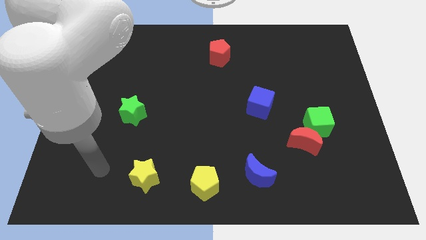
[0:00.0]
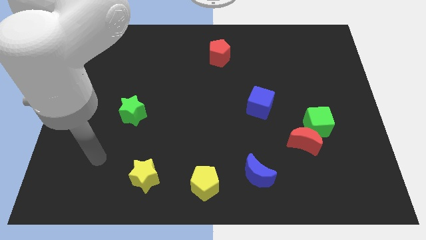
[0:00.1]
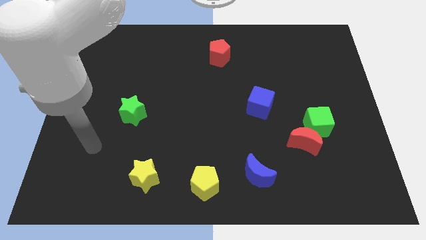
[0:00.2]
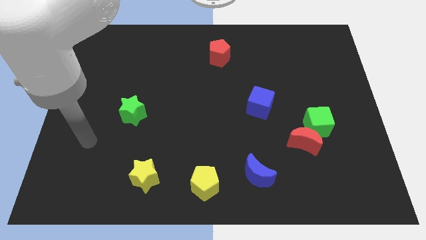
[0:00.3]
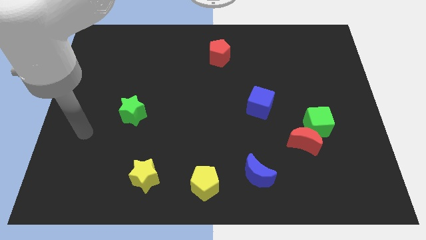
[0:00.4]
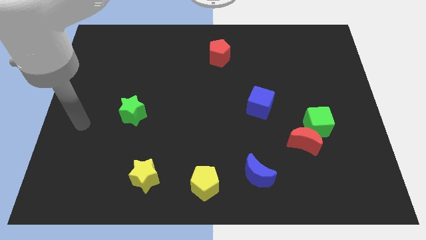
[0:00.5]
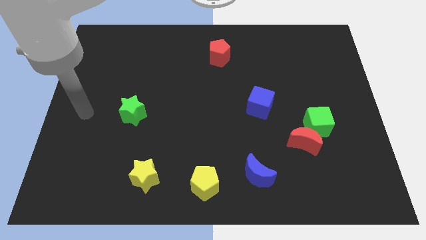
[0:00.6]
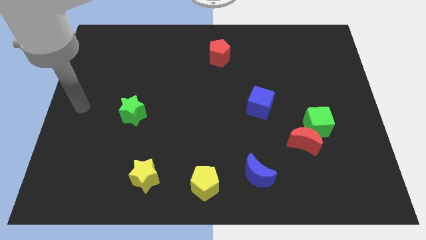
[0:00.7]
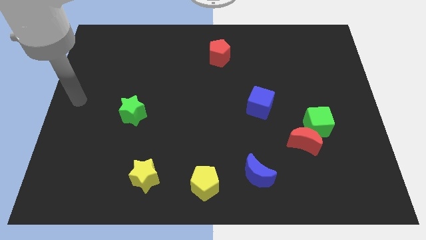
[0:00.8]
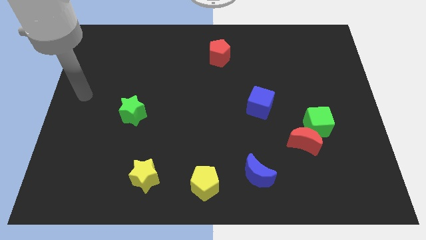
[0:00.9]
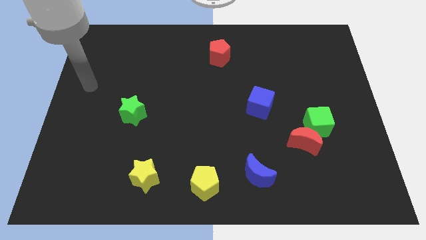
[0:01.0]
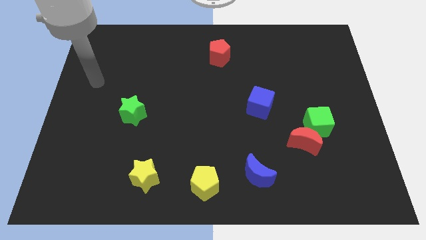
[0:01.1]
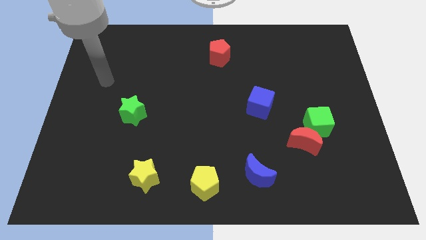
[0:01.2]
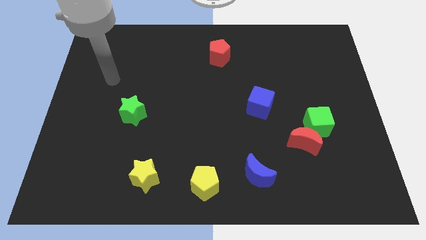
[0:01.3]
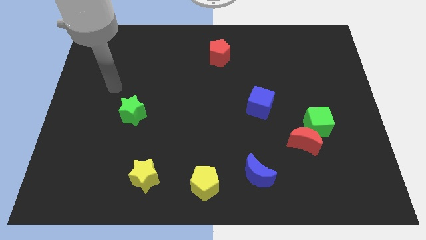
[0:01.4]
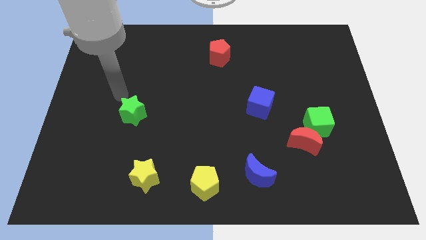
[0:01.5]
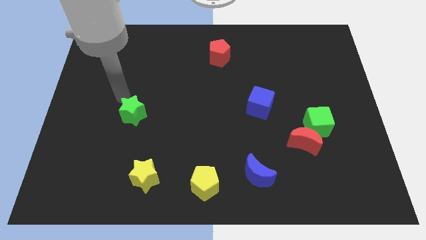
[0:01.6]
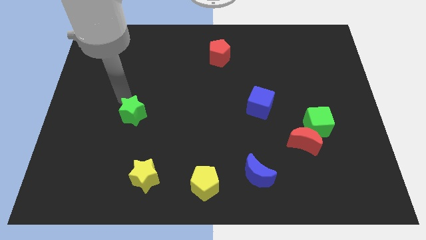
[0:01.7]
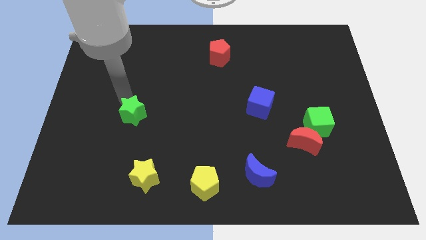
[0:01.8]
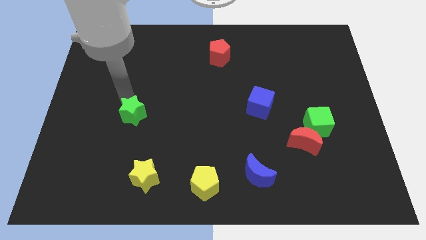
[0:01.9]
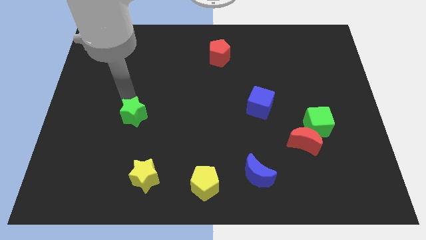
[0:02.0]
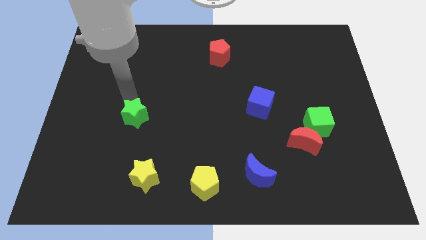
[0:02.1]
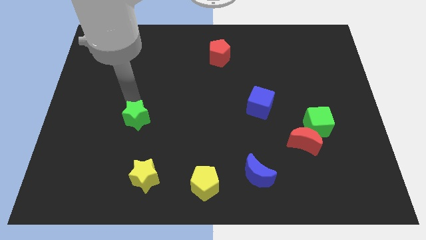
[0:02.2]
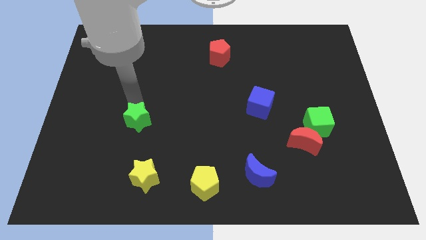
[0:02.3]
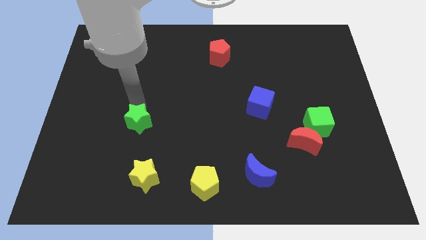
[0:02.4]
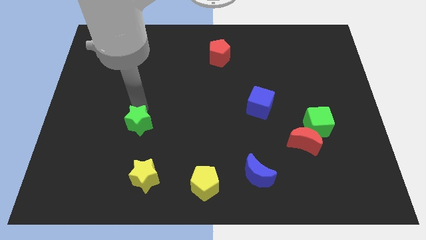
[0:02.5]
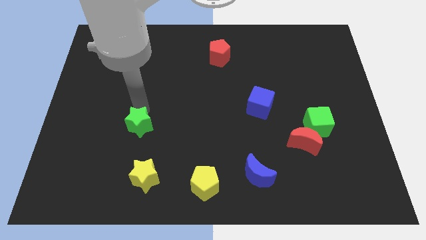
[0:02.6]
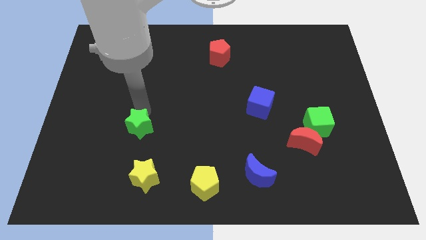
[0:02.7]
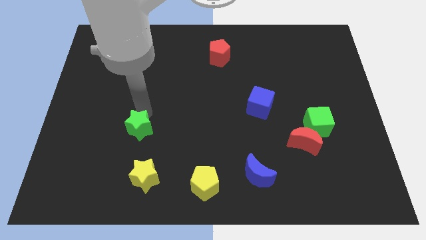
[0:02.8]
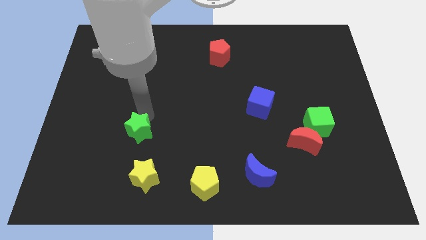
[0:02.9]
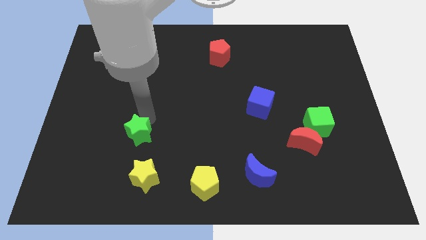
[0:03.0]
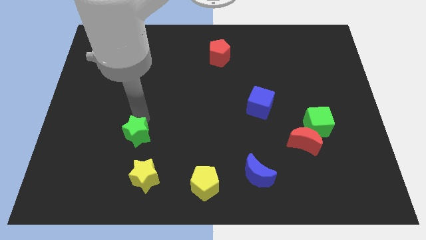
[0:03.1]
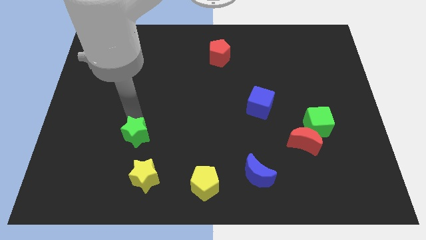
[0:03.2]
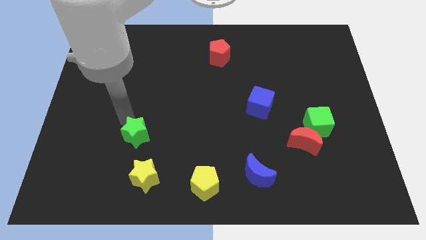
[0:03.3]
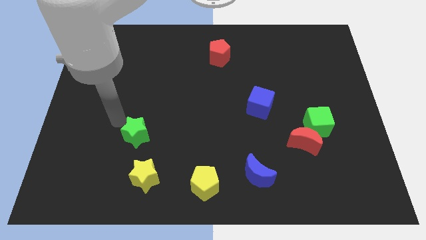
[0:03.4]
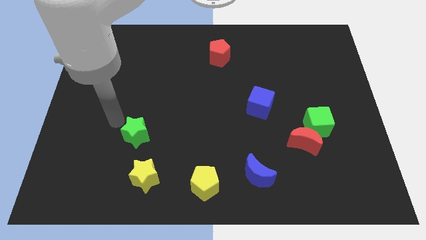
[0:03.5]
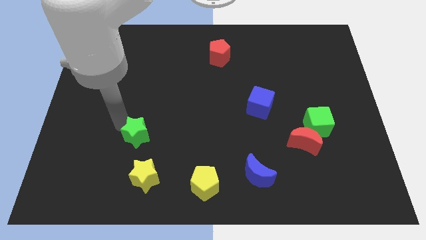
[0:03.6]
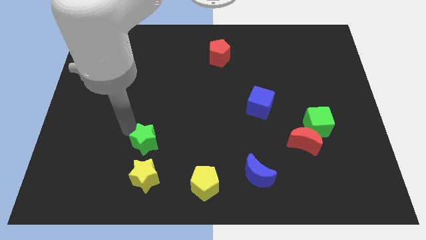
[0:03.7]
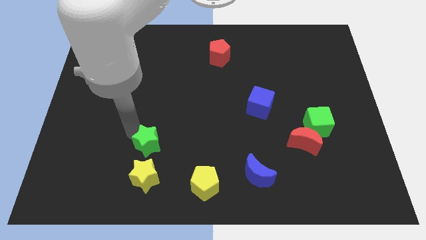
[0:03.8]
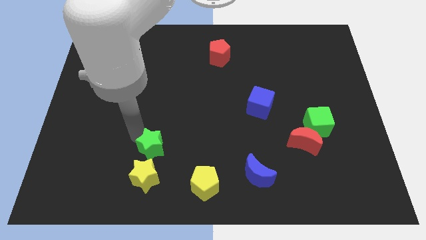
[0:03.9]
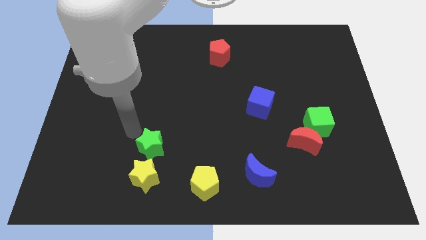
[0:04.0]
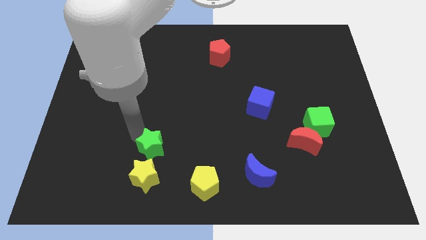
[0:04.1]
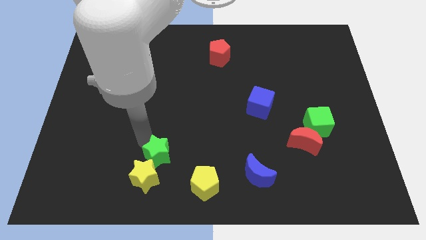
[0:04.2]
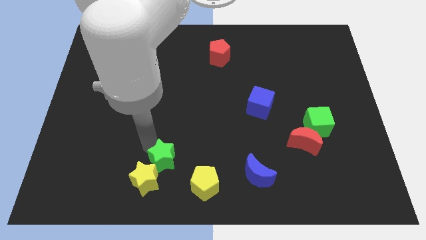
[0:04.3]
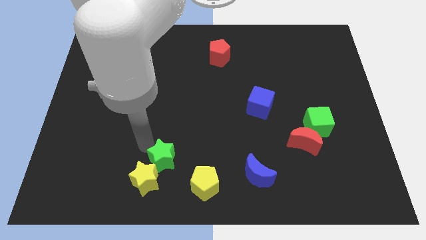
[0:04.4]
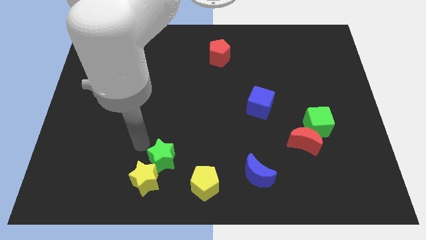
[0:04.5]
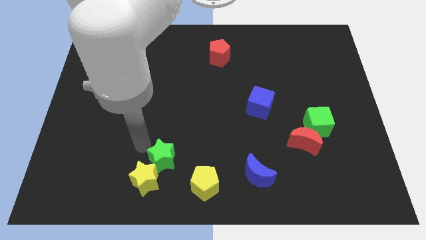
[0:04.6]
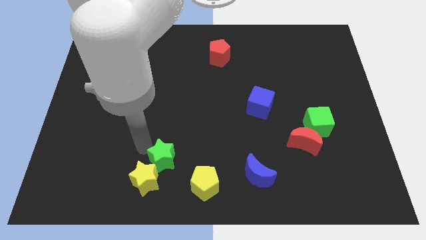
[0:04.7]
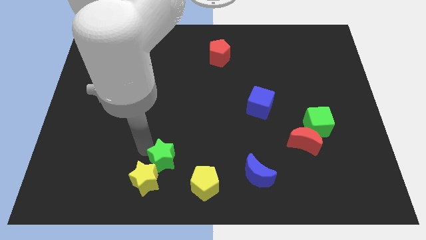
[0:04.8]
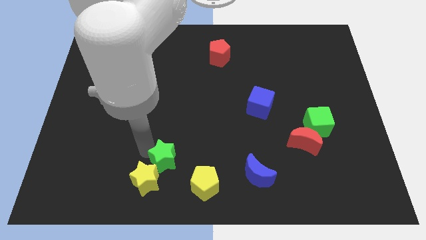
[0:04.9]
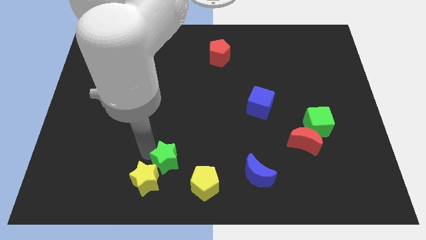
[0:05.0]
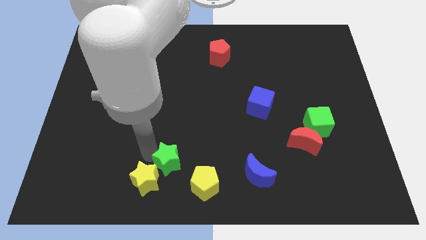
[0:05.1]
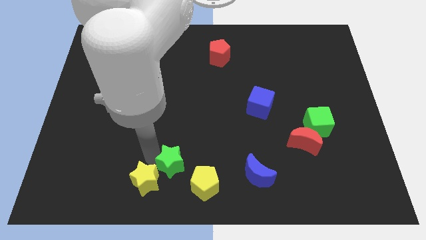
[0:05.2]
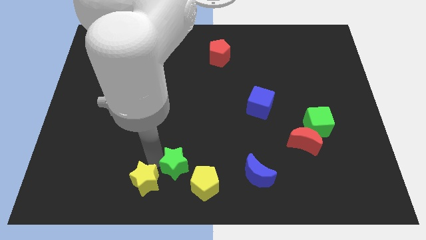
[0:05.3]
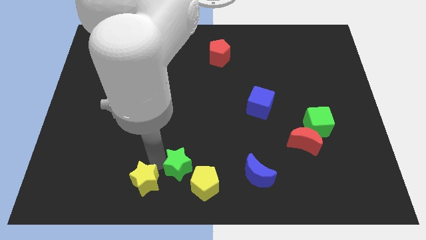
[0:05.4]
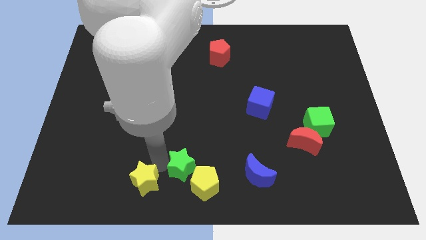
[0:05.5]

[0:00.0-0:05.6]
move the green star to the left of the blue moon
